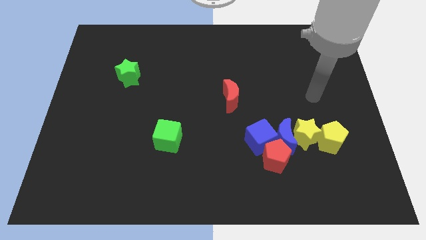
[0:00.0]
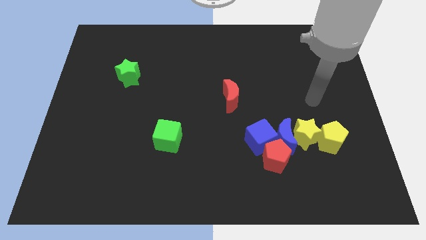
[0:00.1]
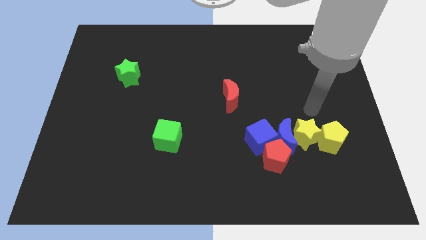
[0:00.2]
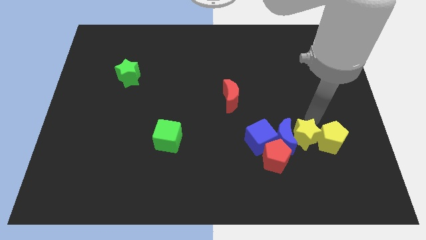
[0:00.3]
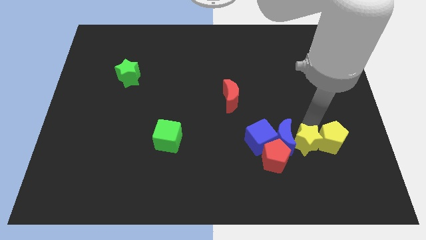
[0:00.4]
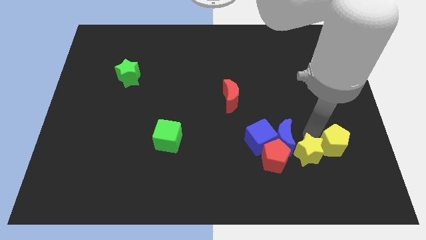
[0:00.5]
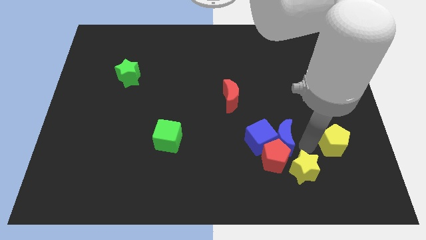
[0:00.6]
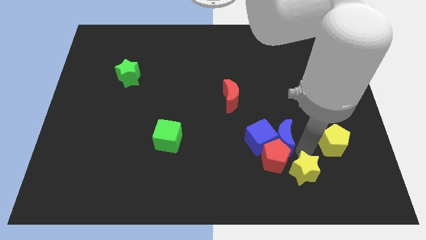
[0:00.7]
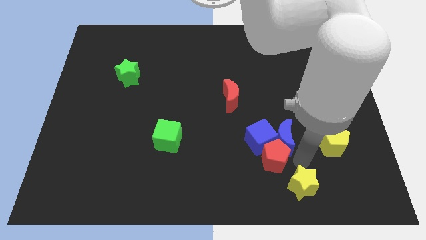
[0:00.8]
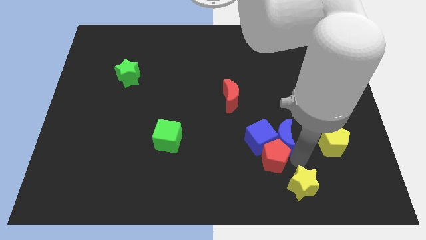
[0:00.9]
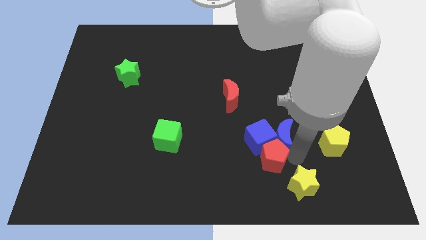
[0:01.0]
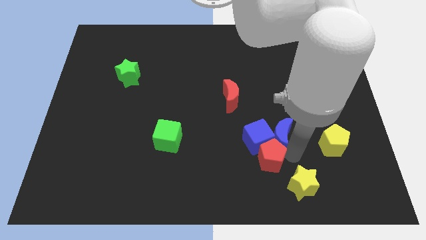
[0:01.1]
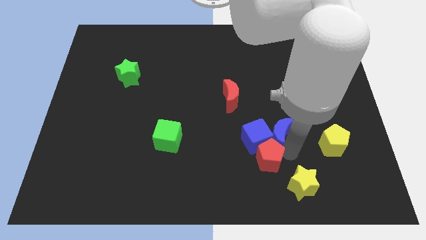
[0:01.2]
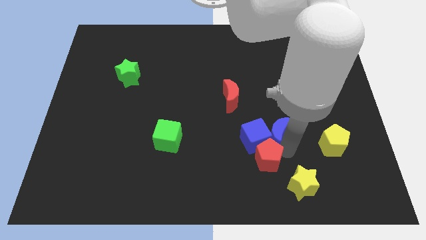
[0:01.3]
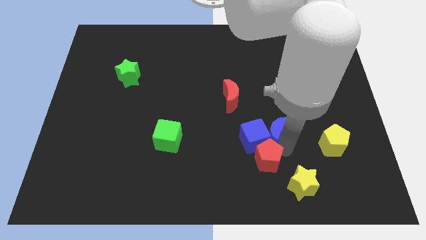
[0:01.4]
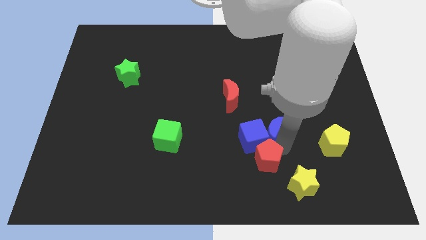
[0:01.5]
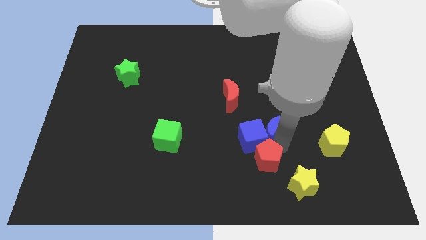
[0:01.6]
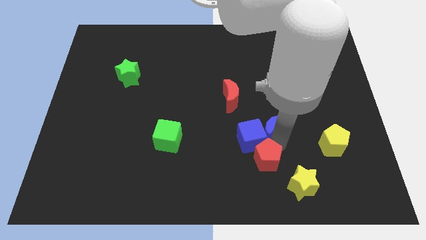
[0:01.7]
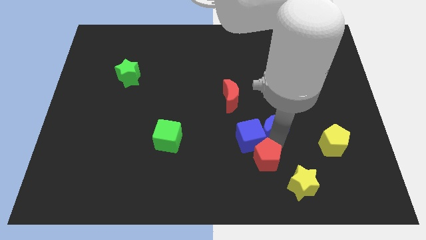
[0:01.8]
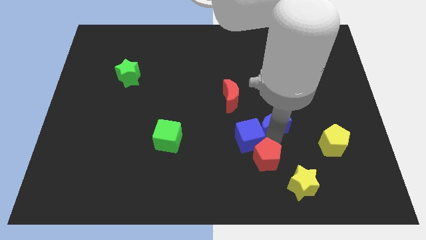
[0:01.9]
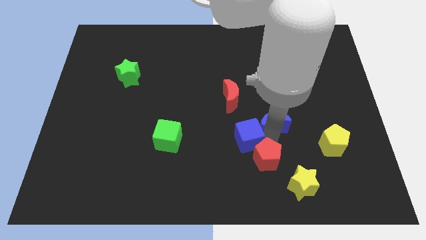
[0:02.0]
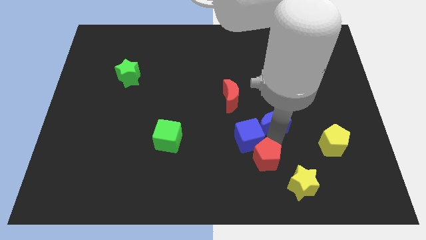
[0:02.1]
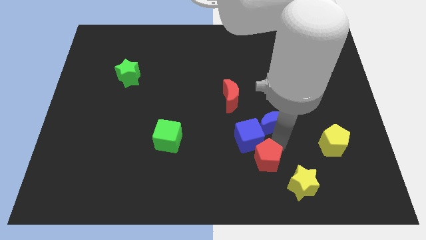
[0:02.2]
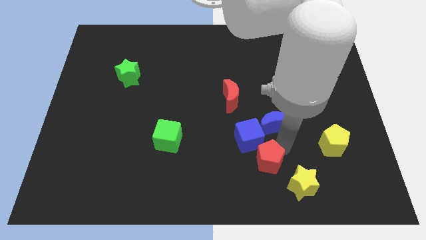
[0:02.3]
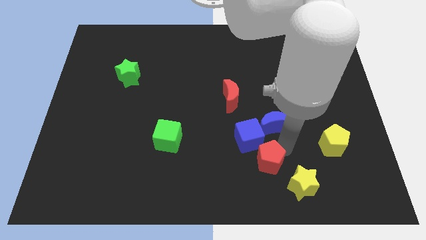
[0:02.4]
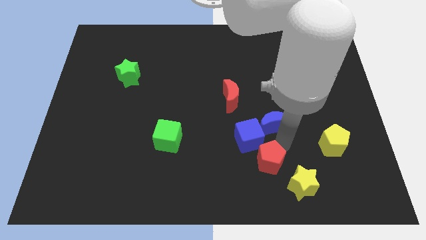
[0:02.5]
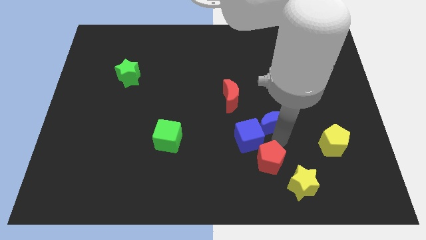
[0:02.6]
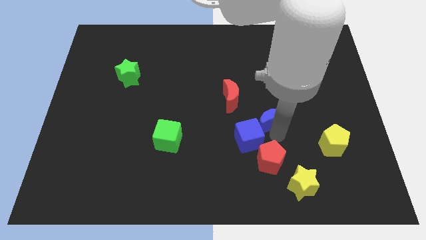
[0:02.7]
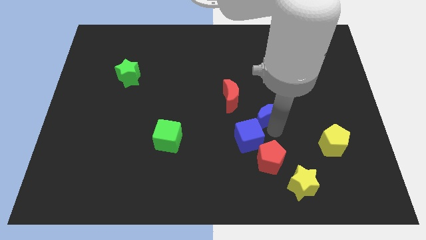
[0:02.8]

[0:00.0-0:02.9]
separate the blue moon from the clump

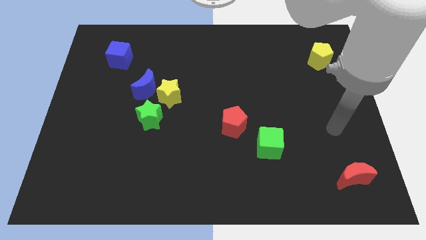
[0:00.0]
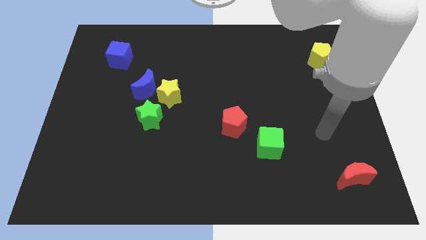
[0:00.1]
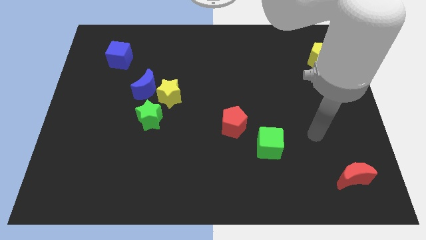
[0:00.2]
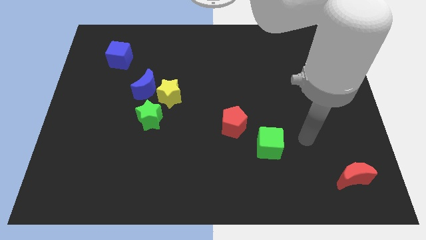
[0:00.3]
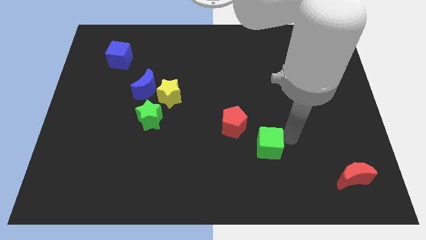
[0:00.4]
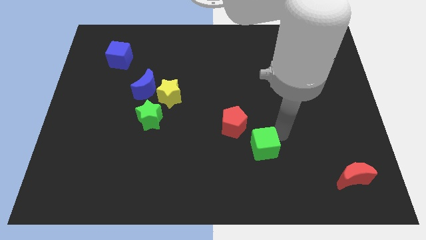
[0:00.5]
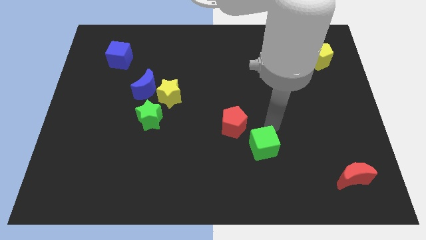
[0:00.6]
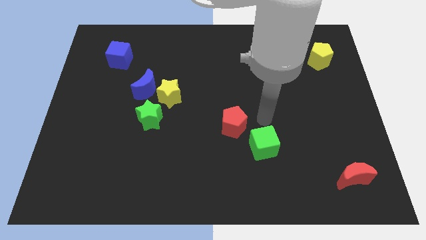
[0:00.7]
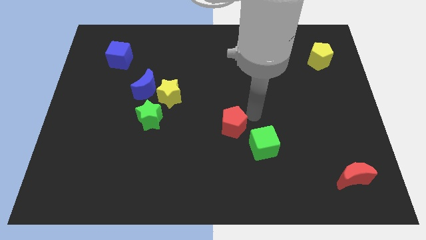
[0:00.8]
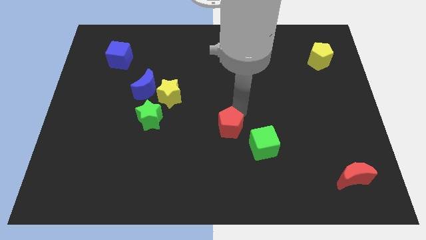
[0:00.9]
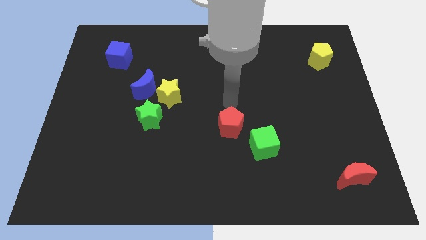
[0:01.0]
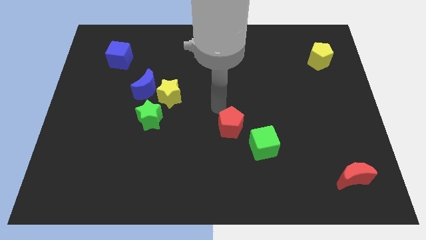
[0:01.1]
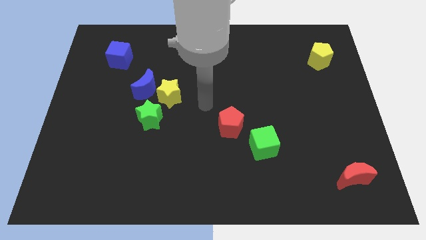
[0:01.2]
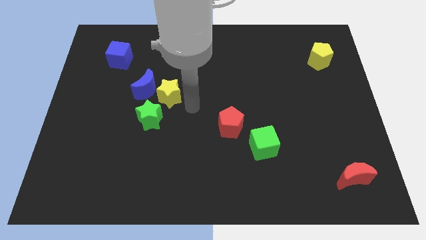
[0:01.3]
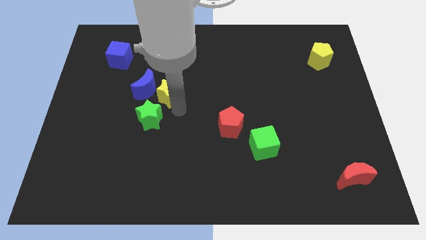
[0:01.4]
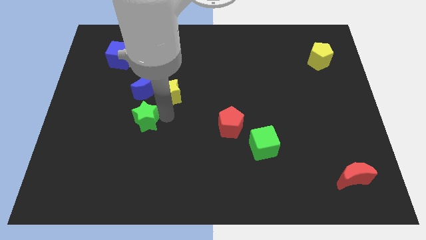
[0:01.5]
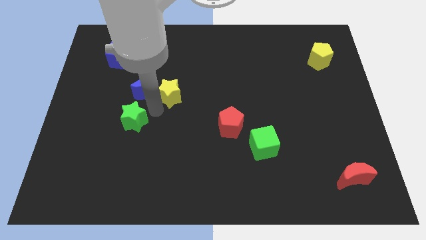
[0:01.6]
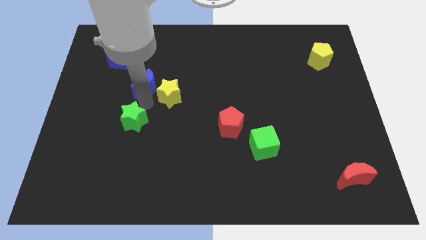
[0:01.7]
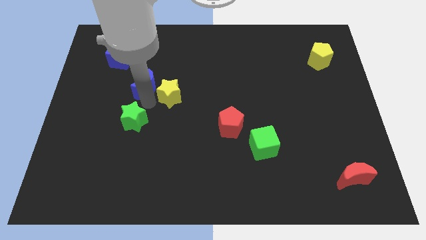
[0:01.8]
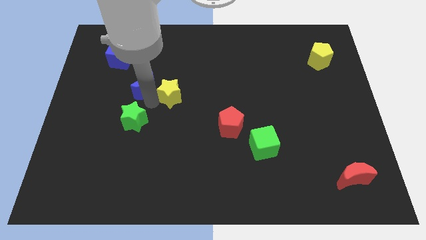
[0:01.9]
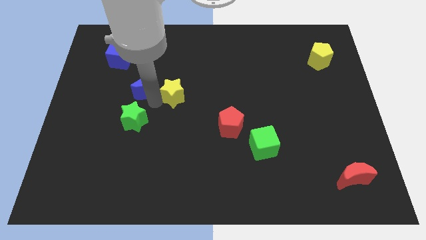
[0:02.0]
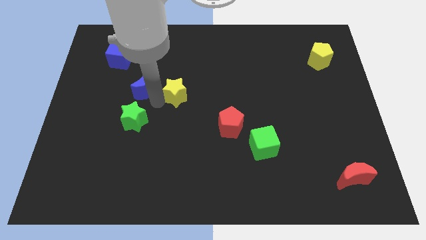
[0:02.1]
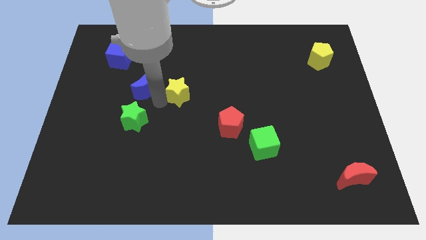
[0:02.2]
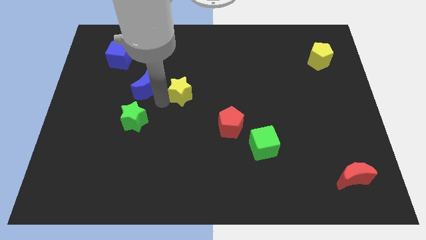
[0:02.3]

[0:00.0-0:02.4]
pull the yellow star apart from the blue moon and green star

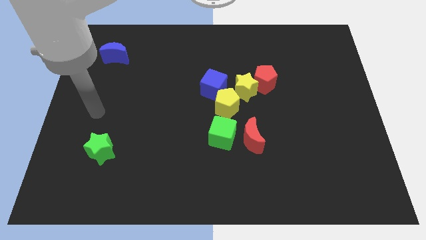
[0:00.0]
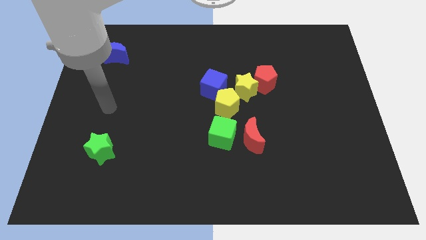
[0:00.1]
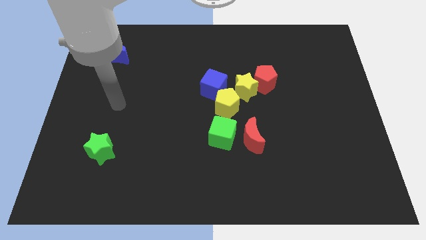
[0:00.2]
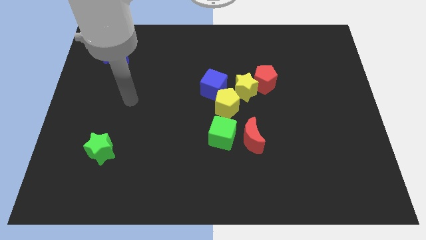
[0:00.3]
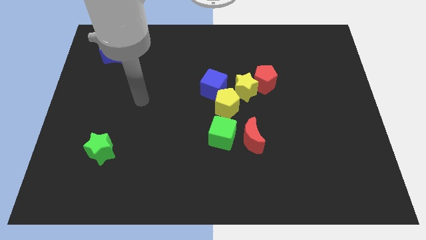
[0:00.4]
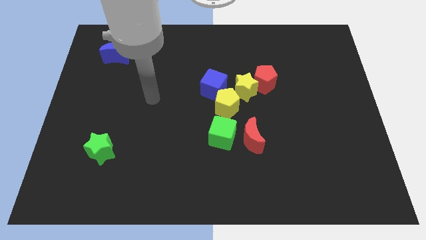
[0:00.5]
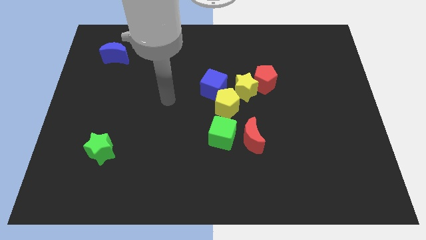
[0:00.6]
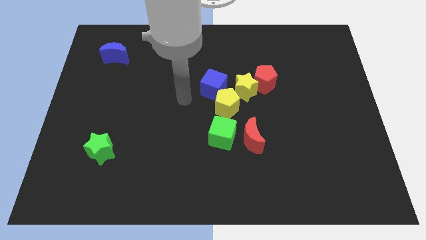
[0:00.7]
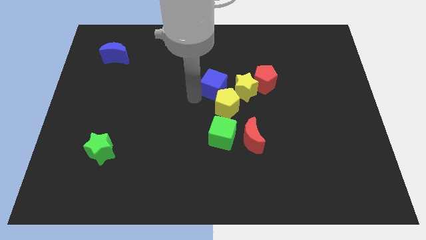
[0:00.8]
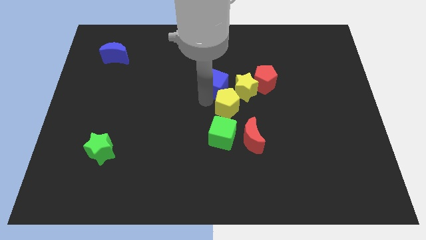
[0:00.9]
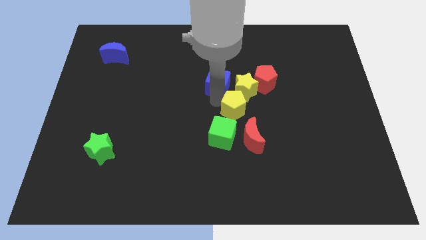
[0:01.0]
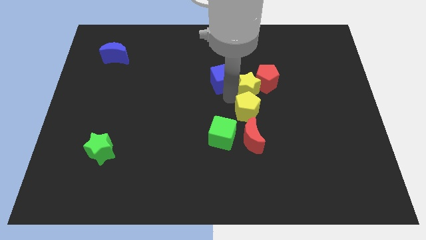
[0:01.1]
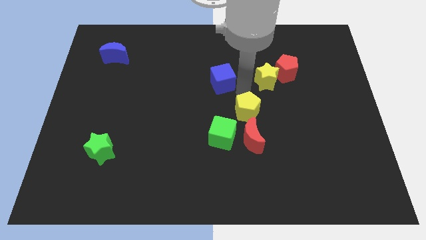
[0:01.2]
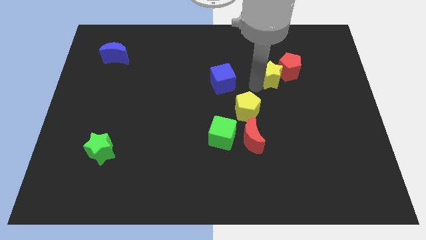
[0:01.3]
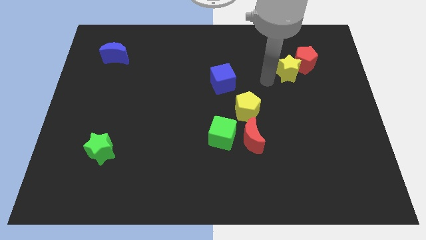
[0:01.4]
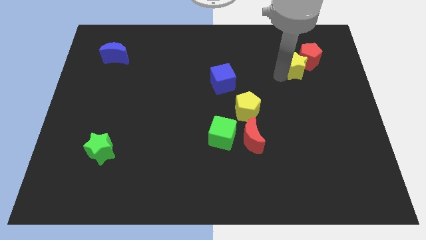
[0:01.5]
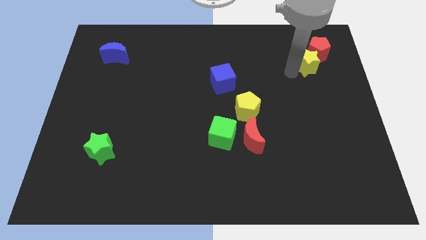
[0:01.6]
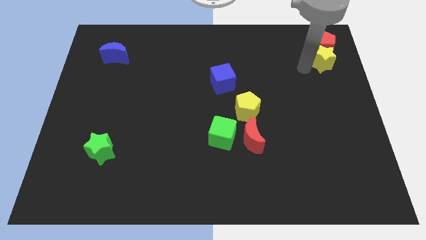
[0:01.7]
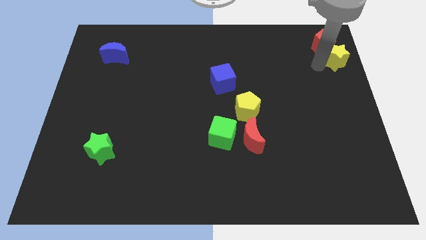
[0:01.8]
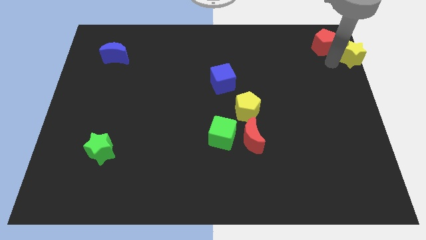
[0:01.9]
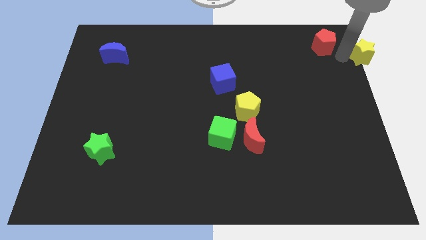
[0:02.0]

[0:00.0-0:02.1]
move the red pentagon away from the yellow star

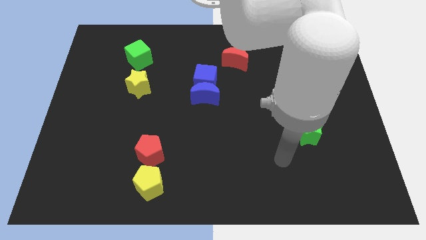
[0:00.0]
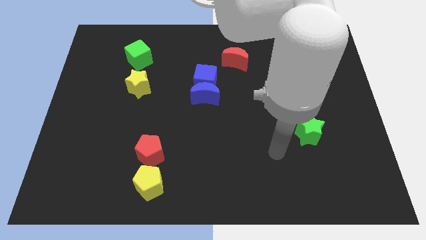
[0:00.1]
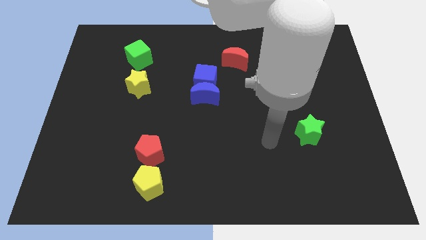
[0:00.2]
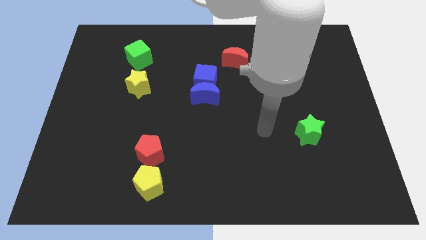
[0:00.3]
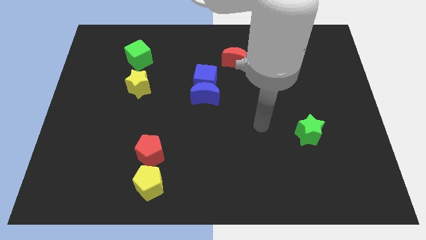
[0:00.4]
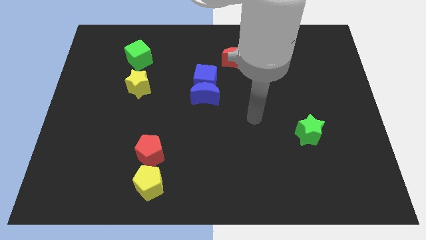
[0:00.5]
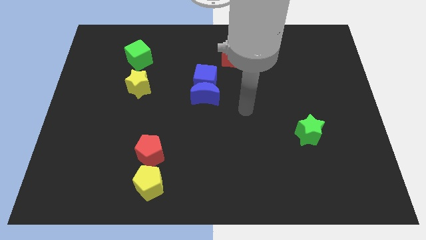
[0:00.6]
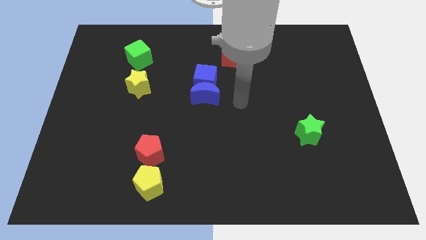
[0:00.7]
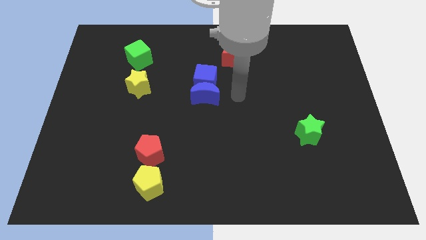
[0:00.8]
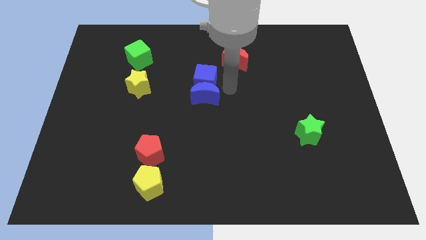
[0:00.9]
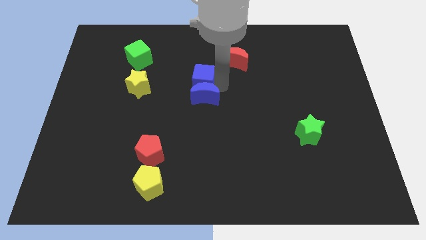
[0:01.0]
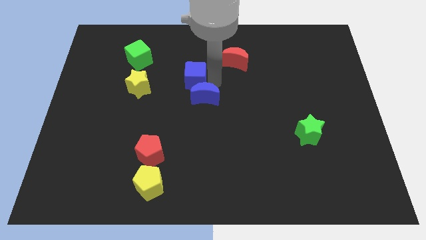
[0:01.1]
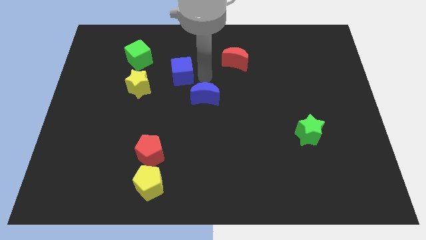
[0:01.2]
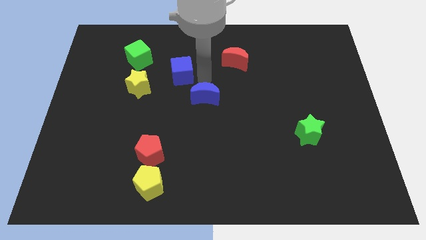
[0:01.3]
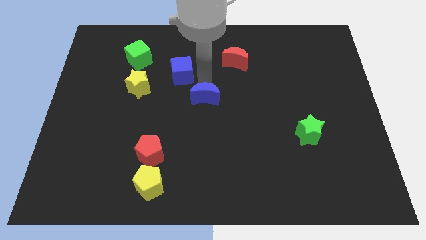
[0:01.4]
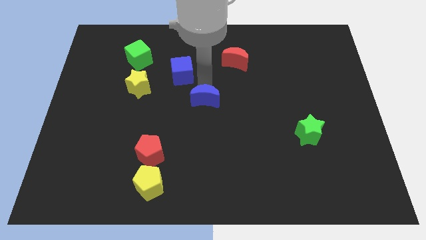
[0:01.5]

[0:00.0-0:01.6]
pull the blue moon apart from the blue cube

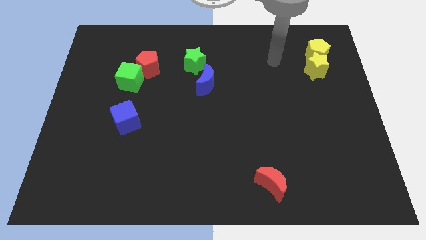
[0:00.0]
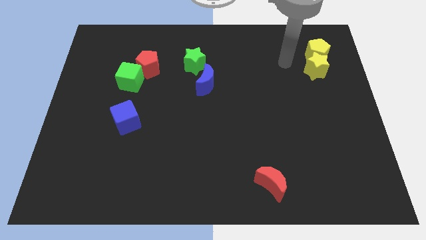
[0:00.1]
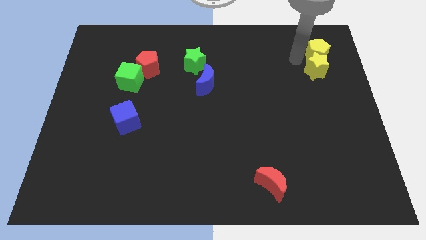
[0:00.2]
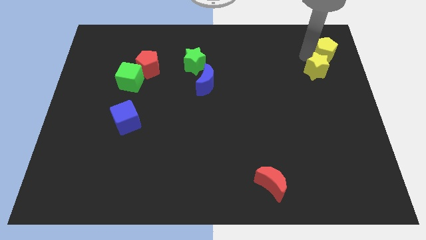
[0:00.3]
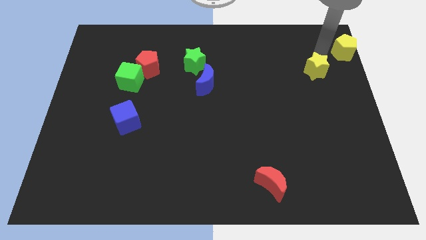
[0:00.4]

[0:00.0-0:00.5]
move the yellow star away from the yellow pentagon
